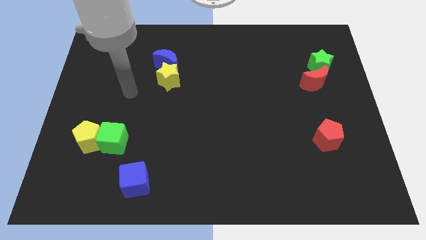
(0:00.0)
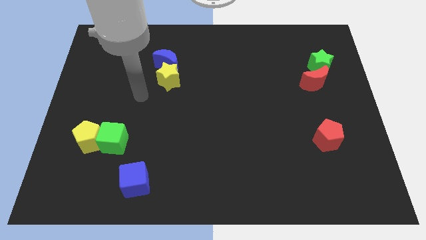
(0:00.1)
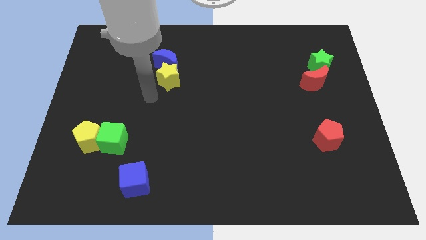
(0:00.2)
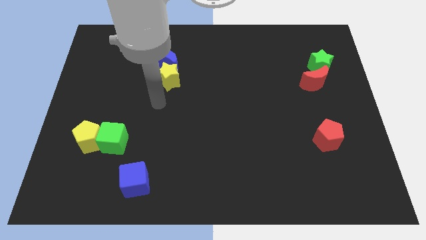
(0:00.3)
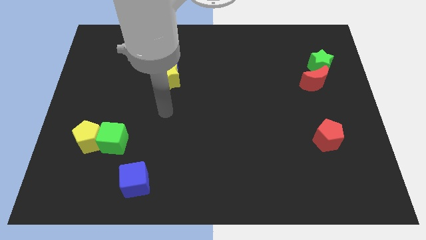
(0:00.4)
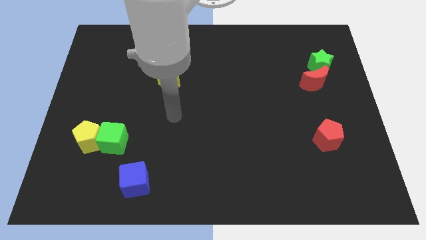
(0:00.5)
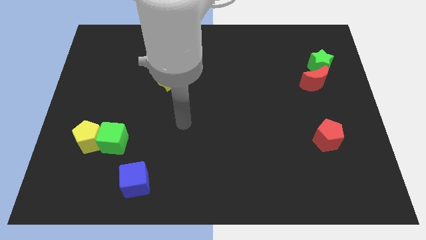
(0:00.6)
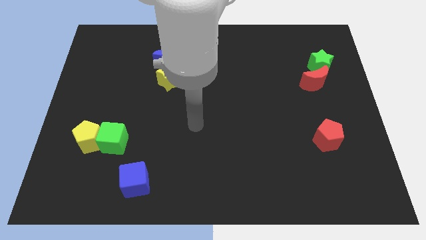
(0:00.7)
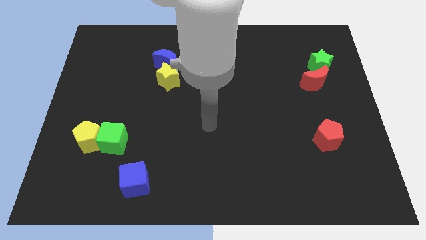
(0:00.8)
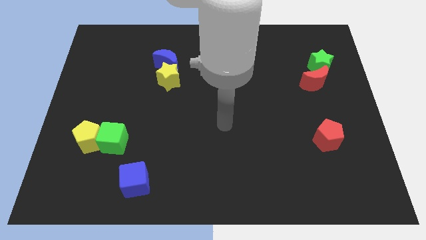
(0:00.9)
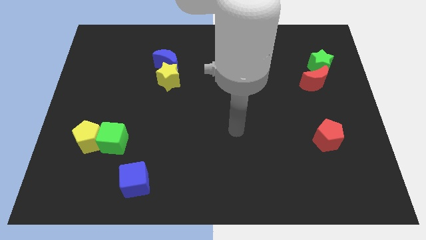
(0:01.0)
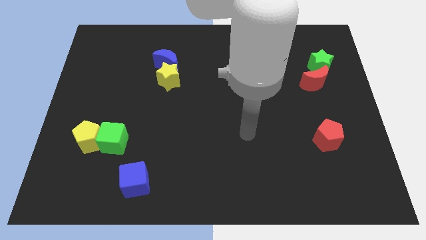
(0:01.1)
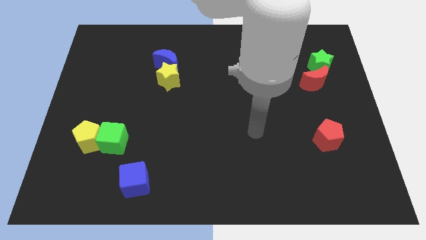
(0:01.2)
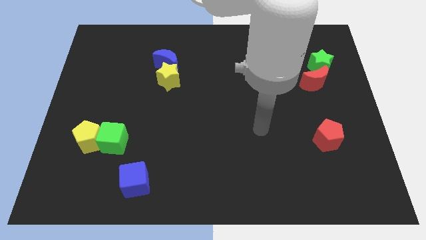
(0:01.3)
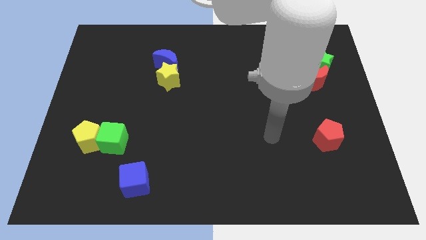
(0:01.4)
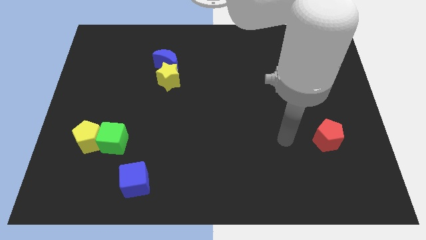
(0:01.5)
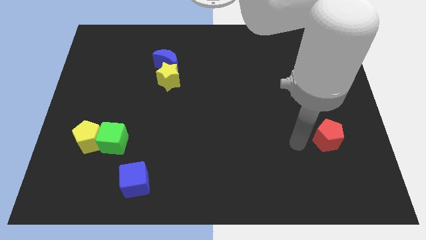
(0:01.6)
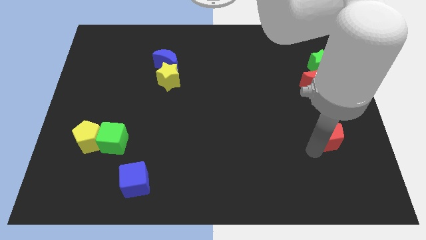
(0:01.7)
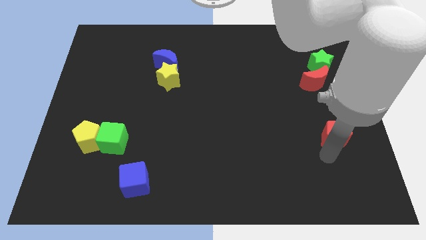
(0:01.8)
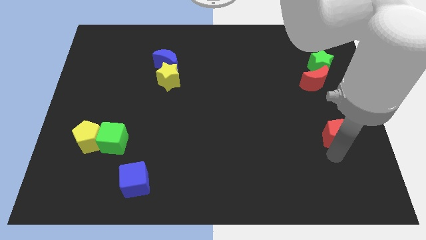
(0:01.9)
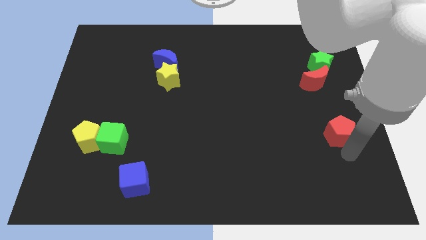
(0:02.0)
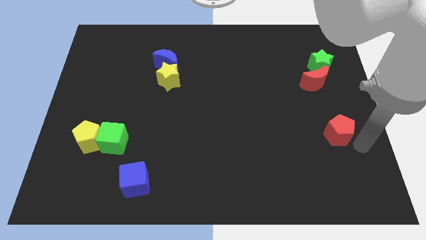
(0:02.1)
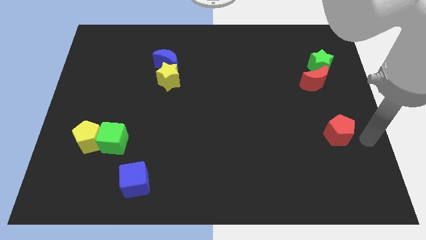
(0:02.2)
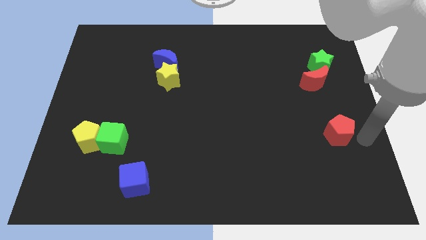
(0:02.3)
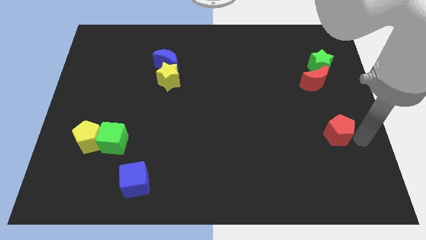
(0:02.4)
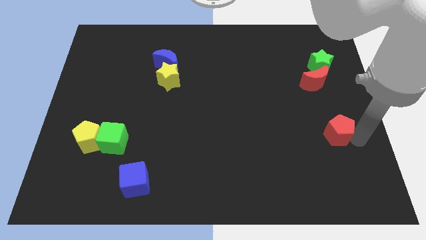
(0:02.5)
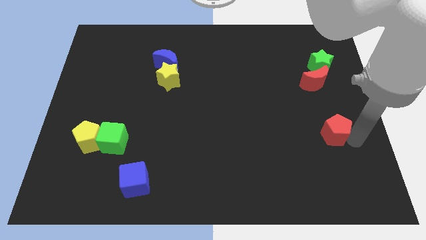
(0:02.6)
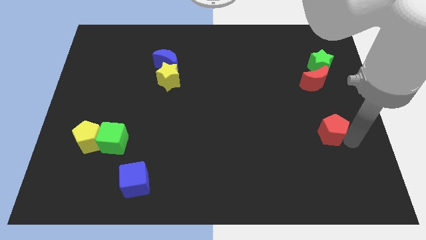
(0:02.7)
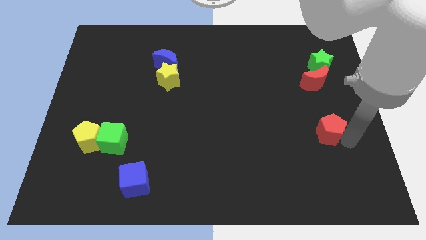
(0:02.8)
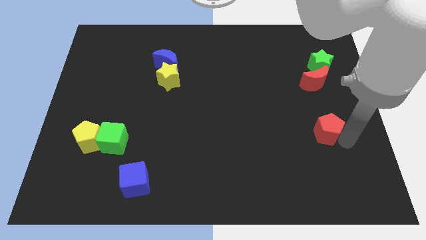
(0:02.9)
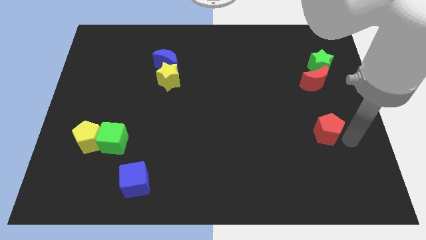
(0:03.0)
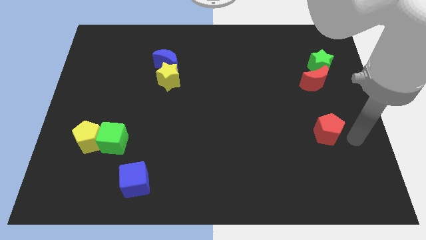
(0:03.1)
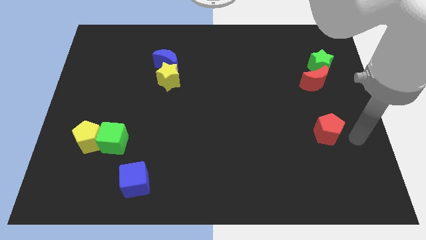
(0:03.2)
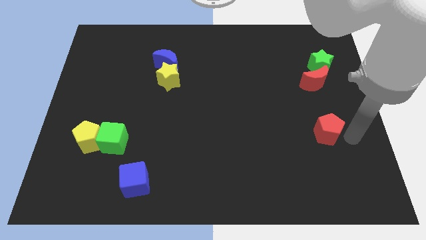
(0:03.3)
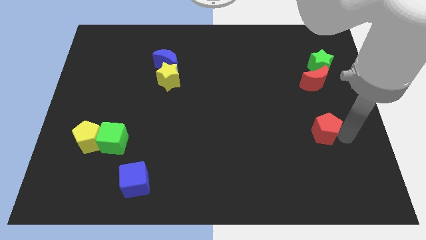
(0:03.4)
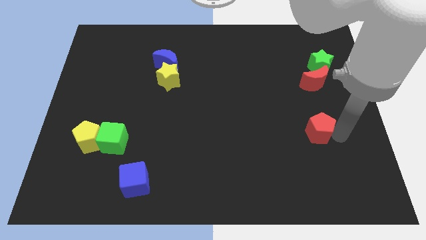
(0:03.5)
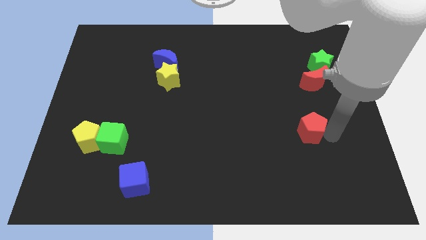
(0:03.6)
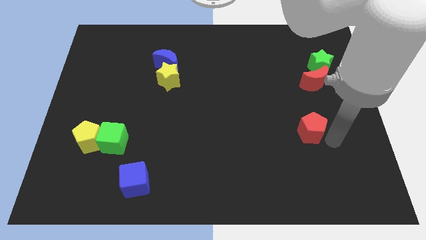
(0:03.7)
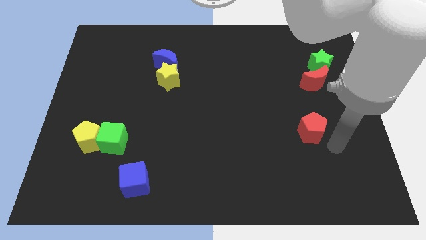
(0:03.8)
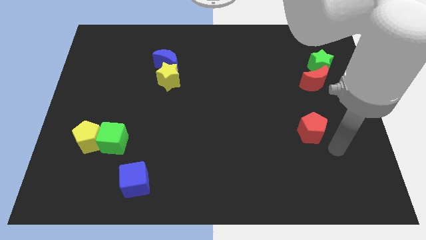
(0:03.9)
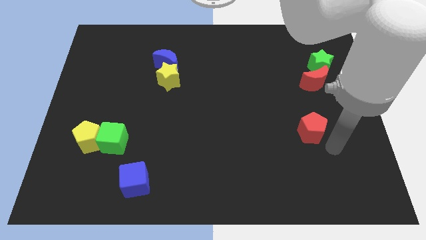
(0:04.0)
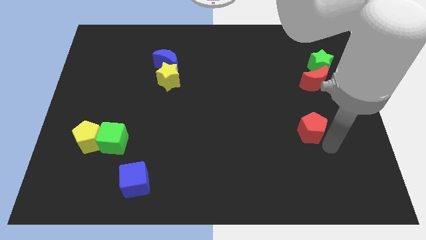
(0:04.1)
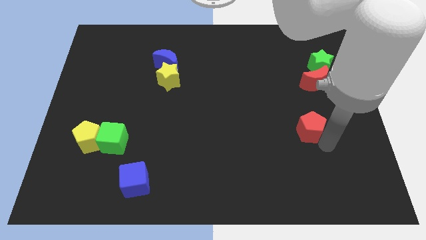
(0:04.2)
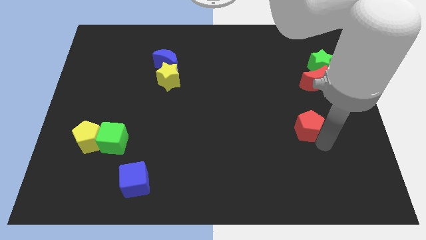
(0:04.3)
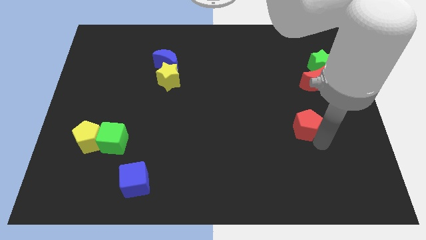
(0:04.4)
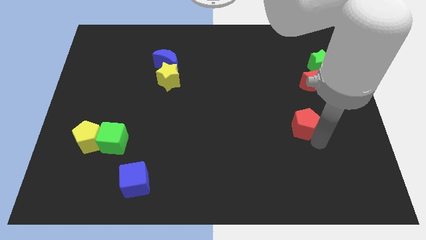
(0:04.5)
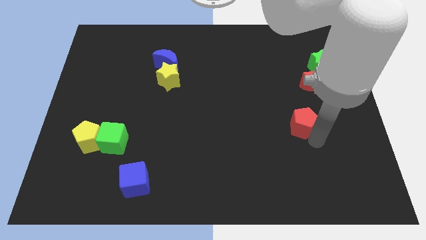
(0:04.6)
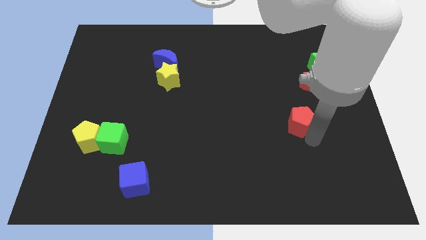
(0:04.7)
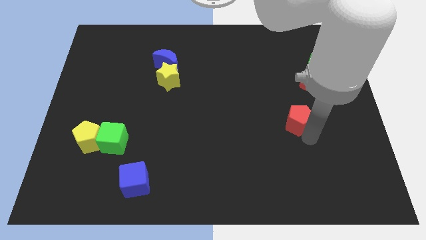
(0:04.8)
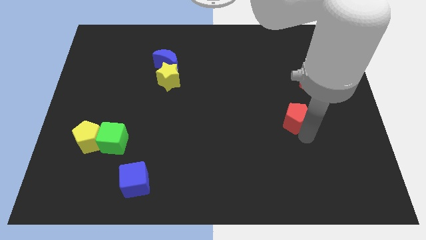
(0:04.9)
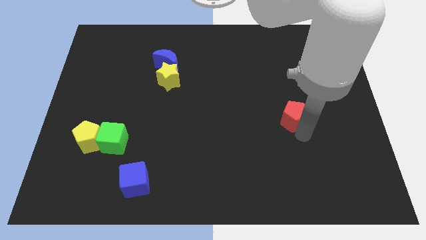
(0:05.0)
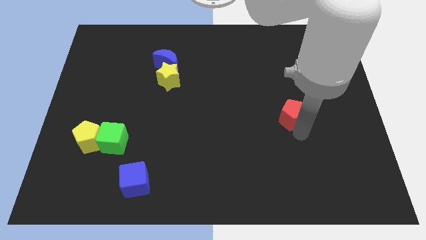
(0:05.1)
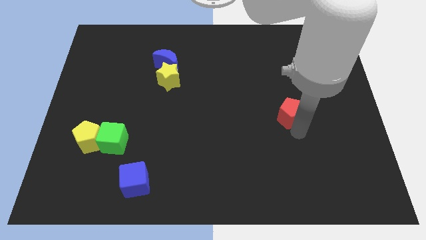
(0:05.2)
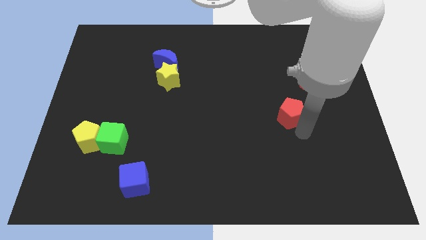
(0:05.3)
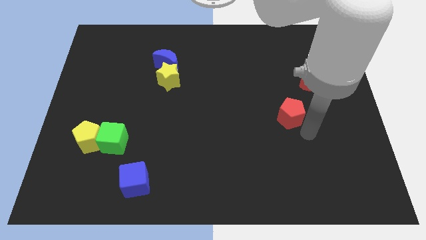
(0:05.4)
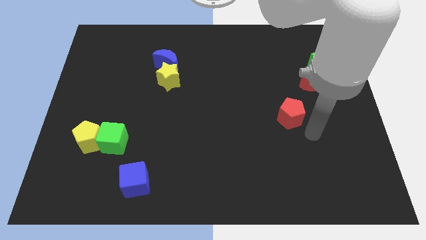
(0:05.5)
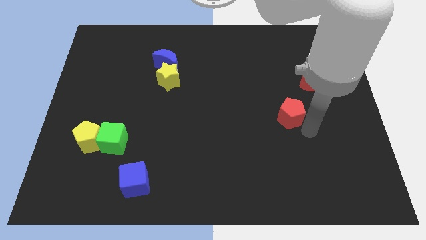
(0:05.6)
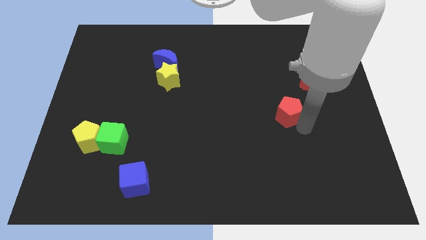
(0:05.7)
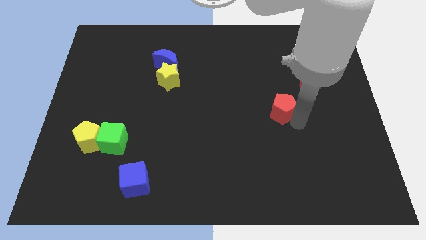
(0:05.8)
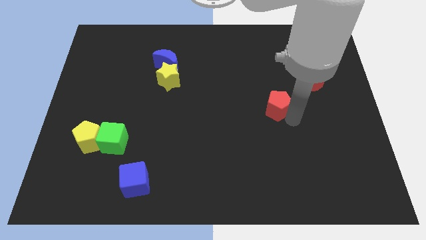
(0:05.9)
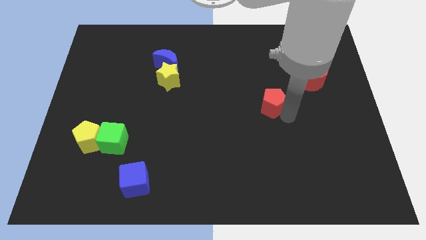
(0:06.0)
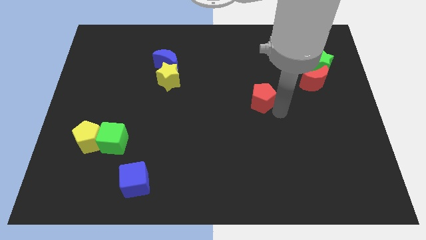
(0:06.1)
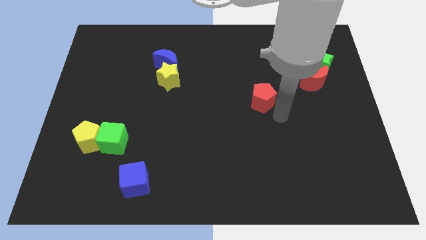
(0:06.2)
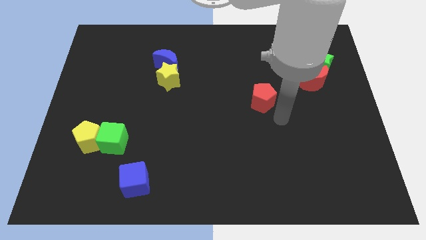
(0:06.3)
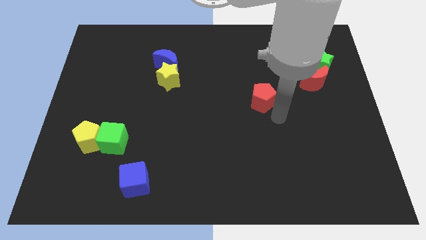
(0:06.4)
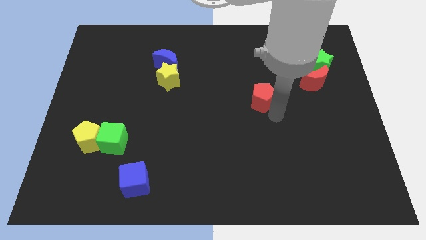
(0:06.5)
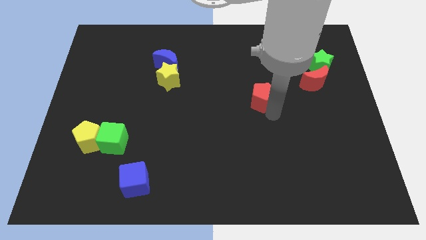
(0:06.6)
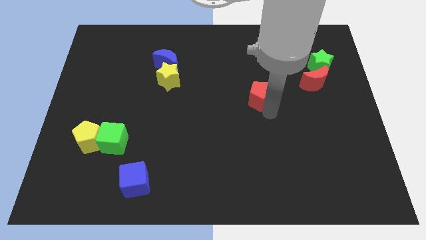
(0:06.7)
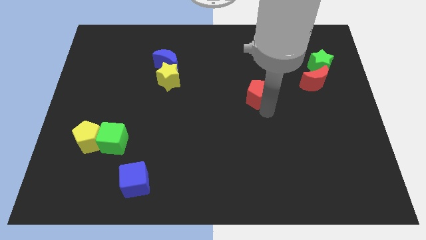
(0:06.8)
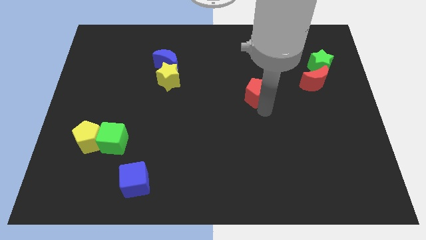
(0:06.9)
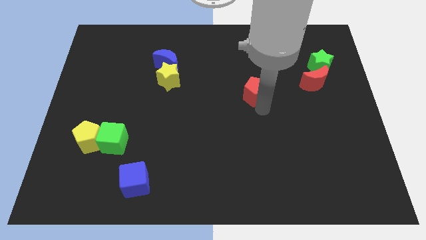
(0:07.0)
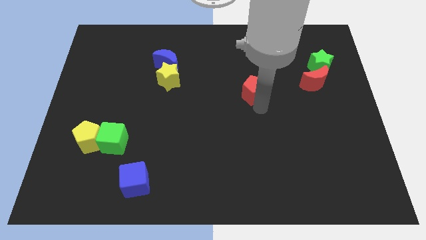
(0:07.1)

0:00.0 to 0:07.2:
slide the red pentagon upwards and left diagonally

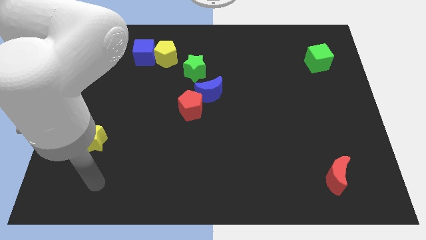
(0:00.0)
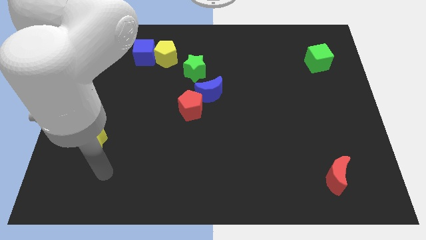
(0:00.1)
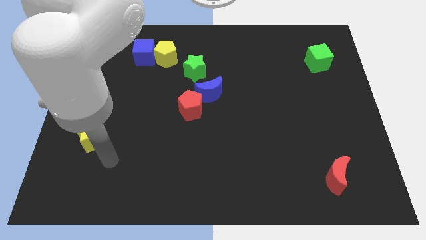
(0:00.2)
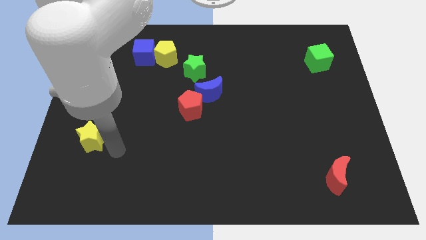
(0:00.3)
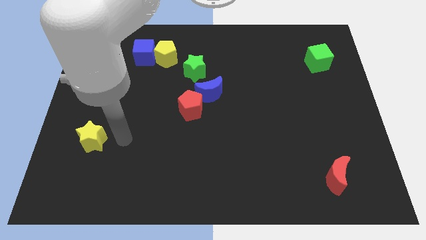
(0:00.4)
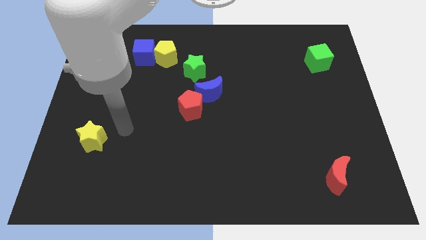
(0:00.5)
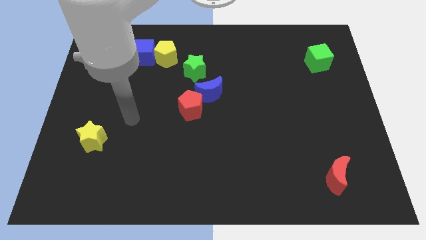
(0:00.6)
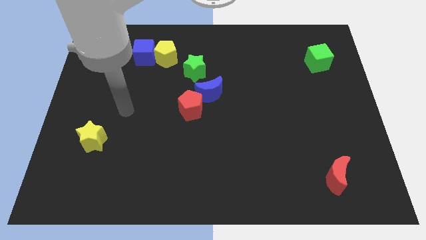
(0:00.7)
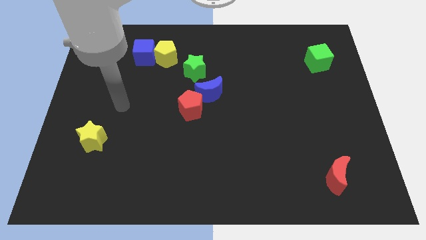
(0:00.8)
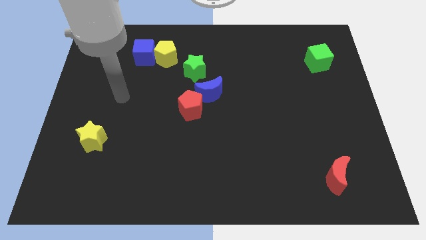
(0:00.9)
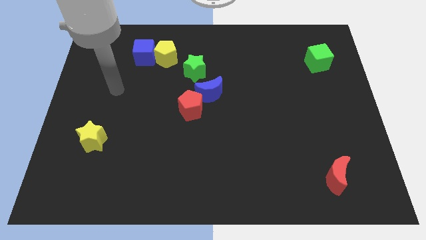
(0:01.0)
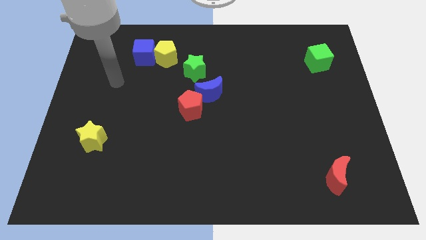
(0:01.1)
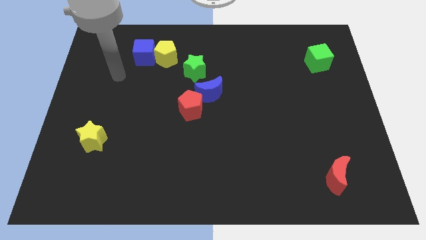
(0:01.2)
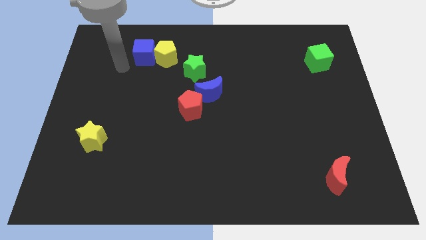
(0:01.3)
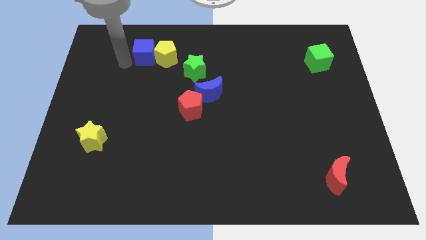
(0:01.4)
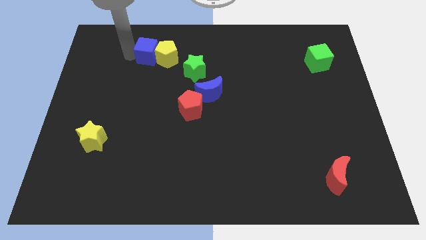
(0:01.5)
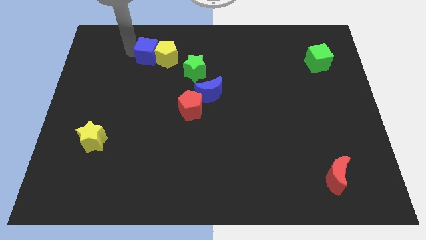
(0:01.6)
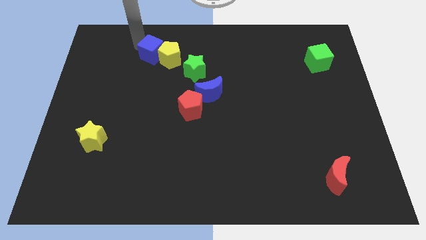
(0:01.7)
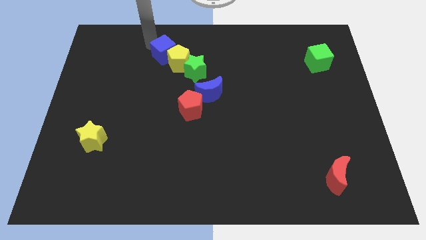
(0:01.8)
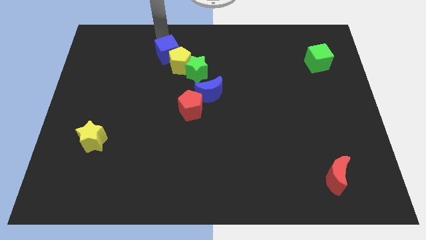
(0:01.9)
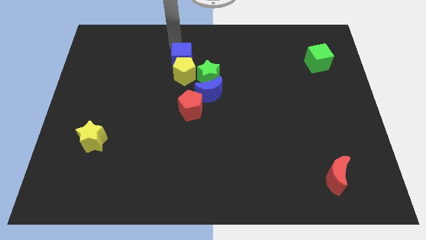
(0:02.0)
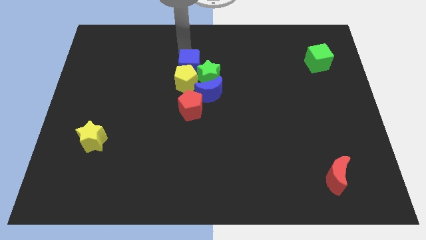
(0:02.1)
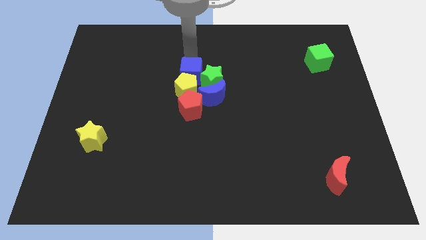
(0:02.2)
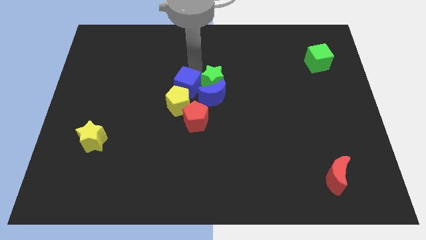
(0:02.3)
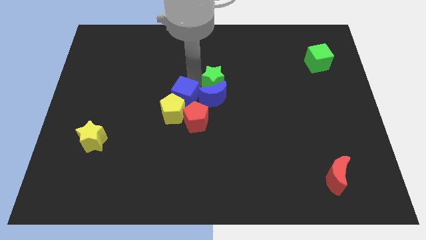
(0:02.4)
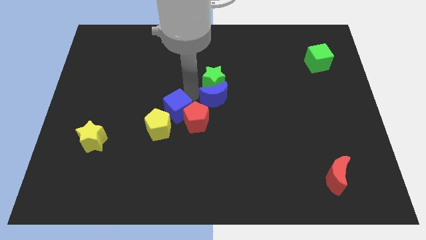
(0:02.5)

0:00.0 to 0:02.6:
move the yellow pentagon downwards
